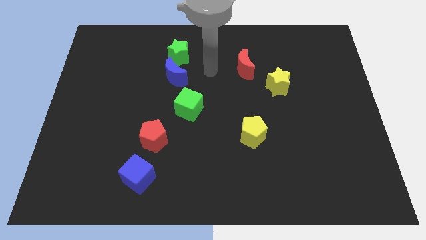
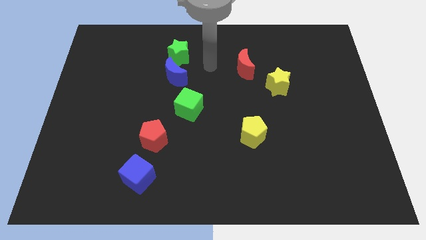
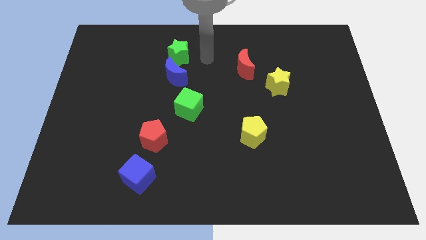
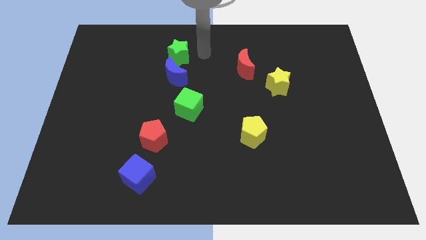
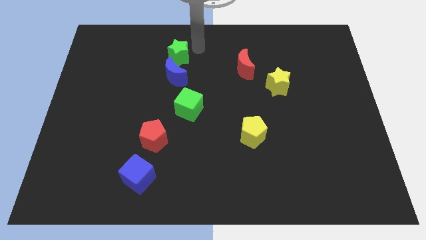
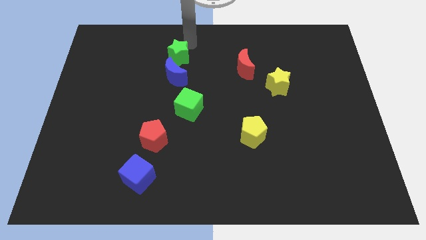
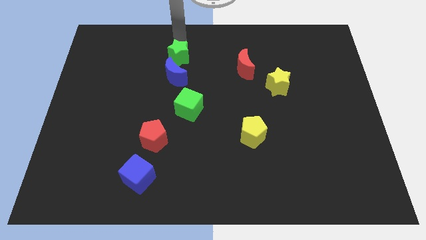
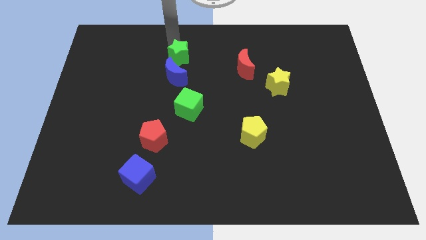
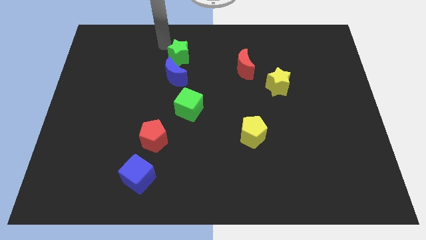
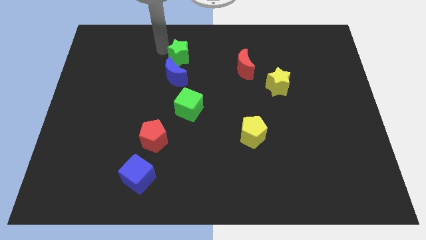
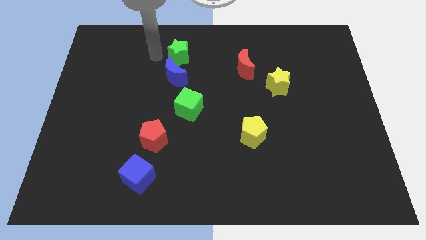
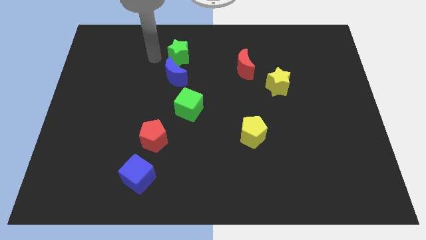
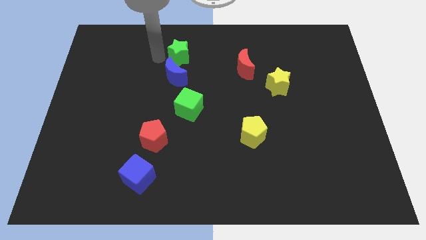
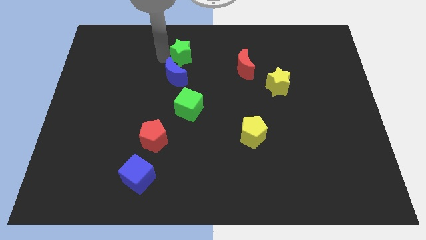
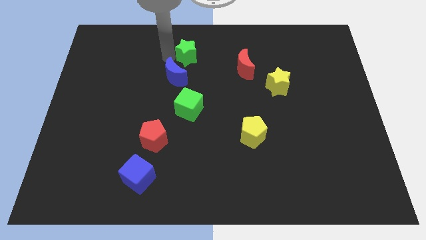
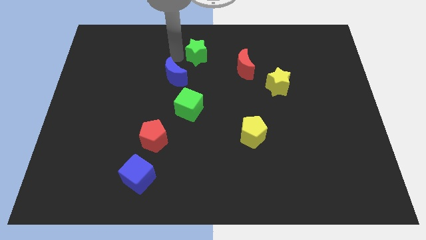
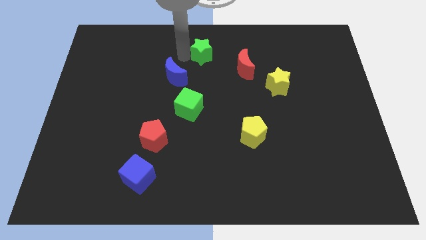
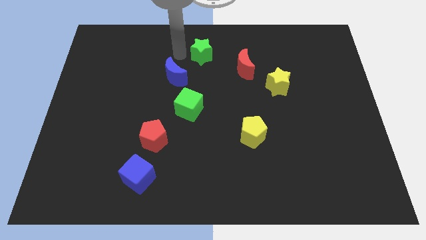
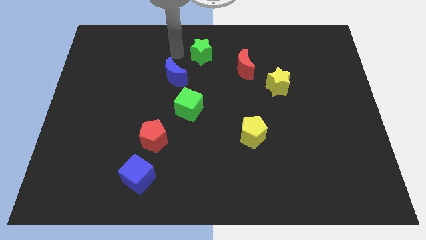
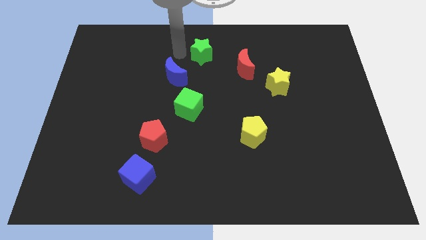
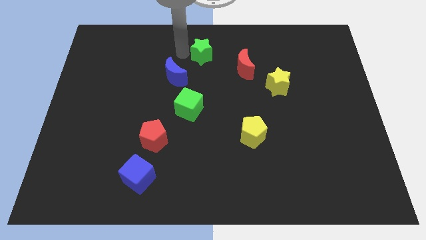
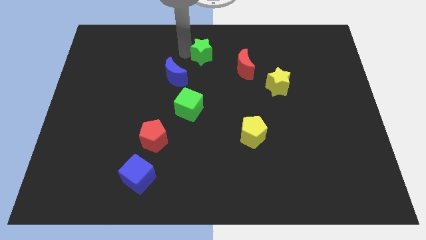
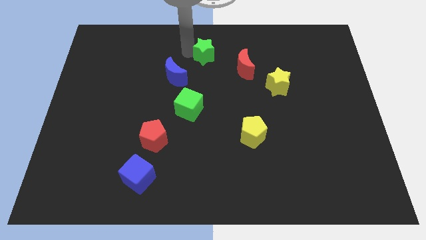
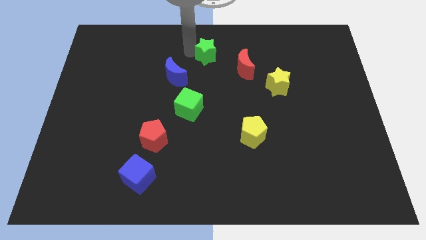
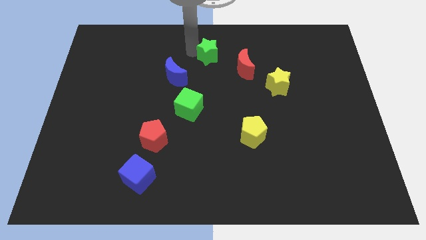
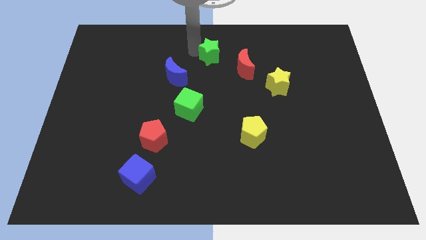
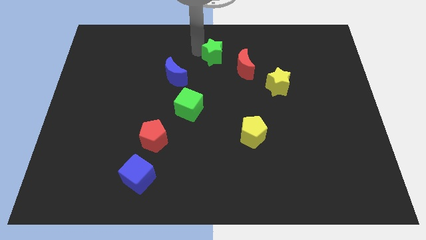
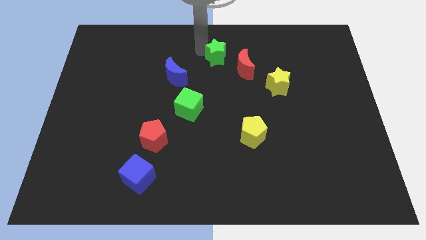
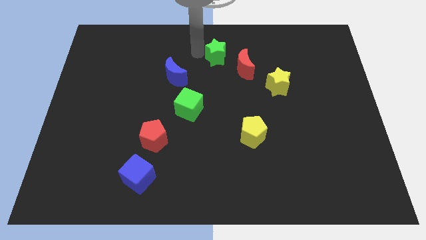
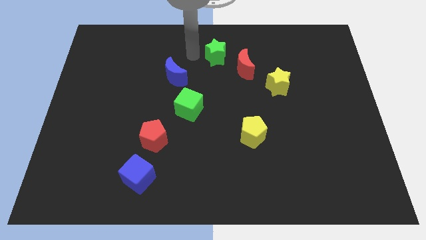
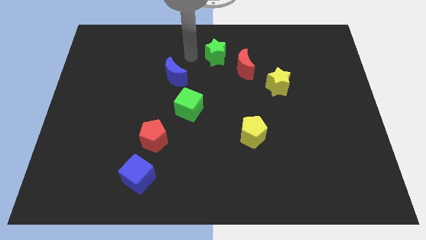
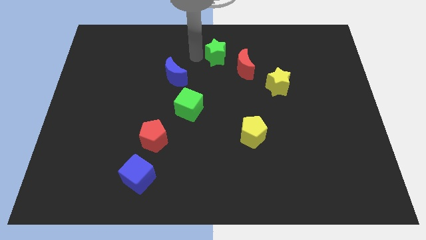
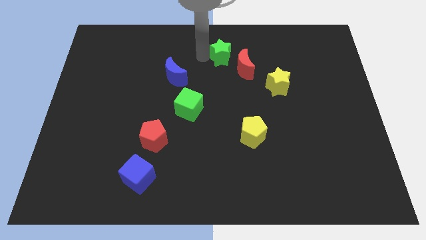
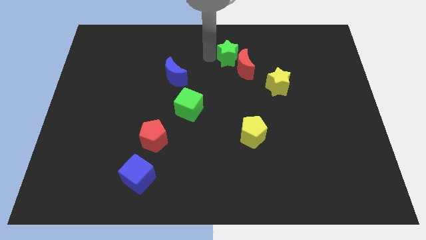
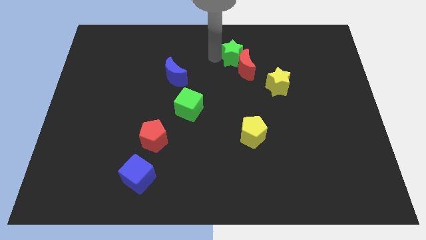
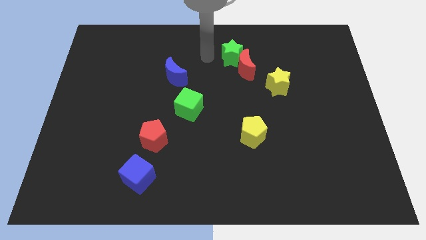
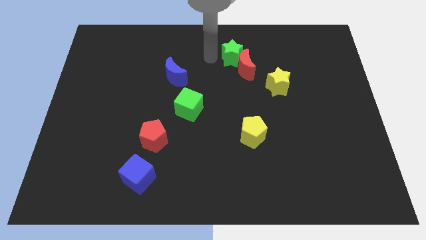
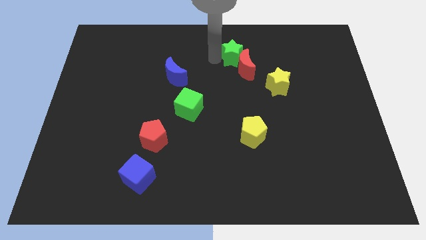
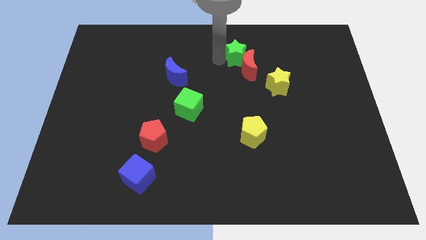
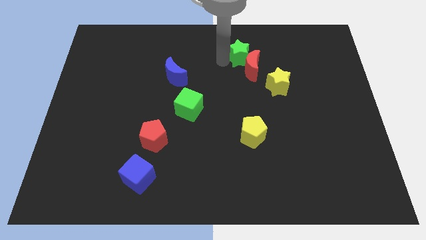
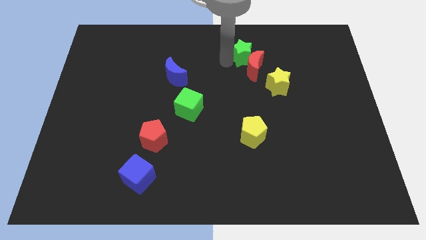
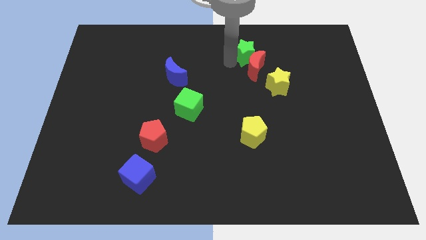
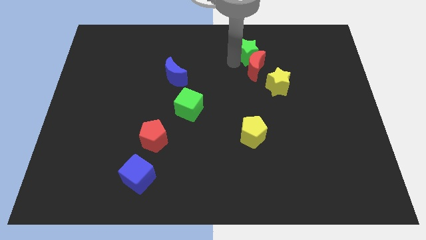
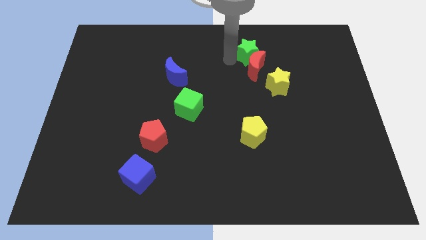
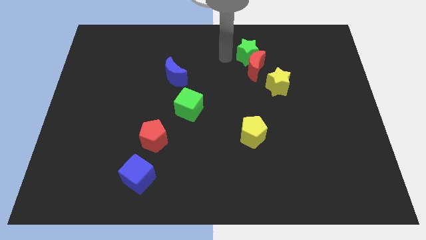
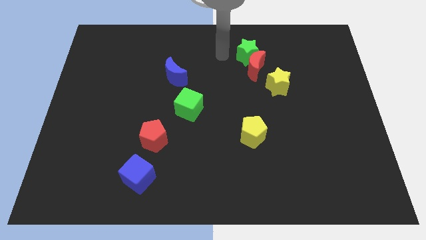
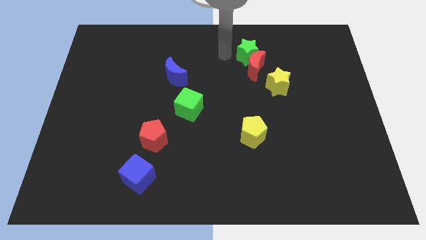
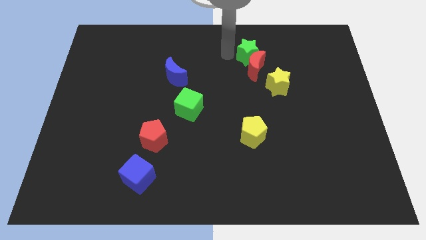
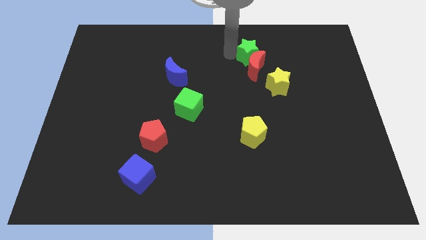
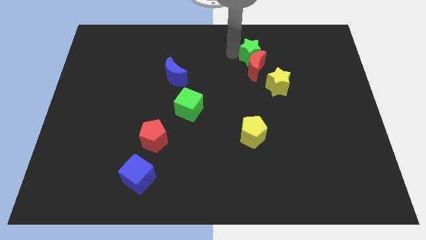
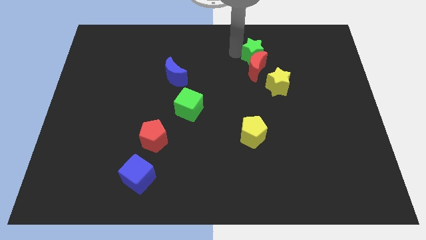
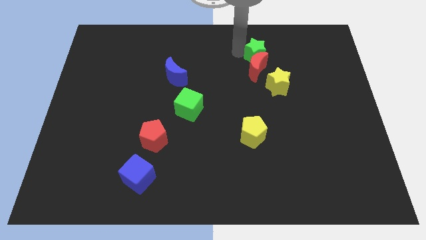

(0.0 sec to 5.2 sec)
push the green star to the top of the yellow star
